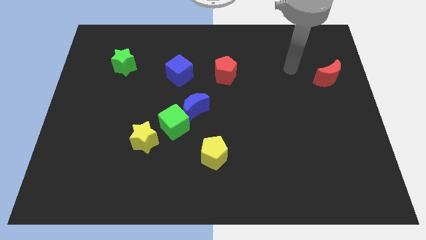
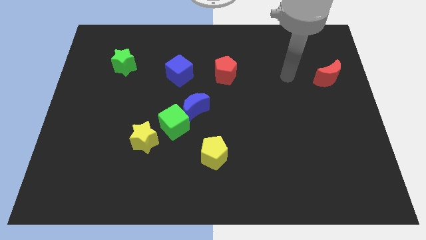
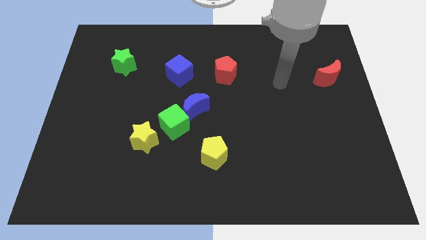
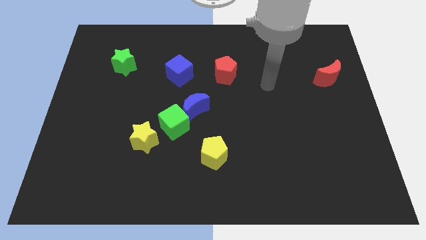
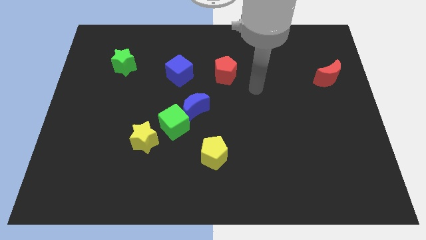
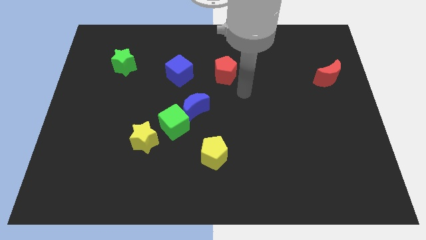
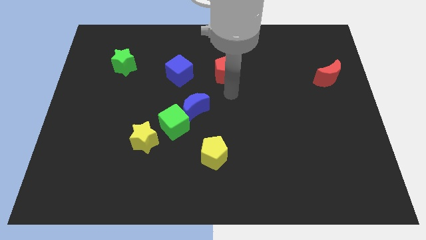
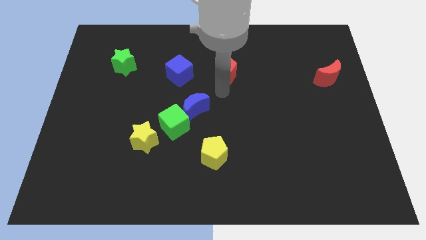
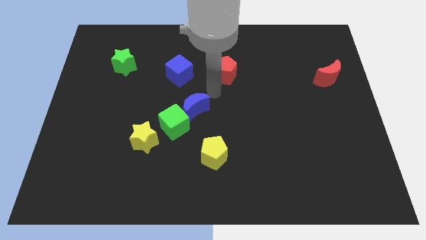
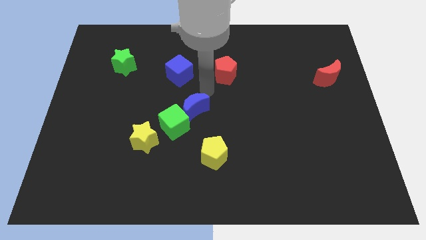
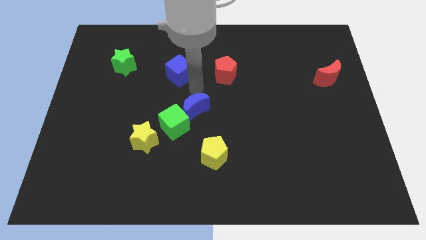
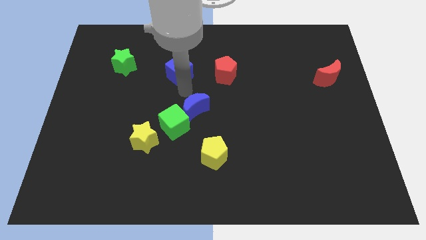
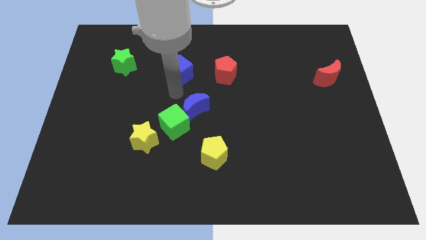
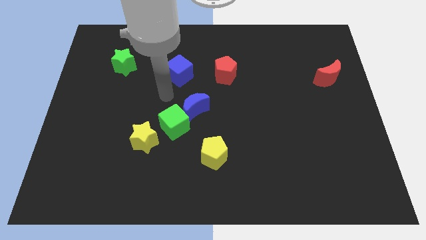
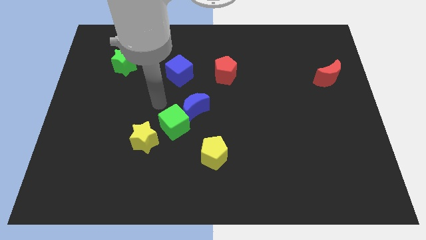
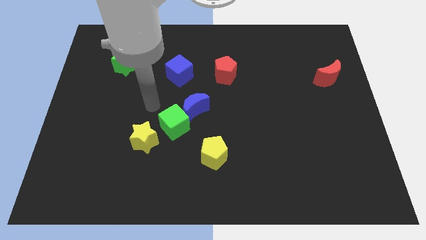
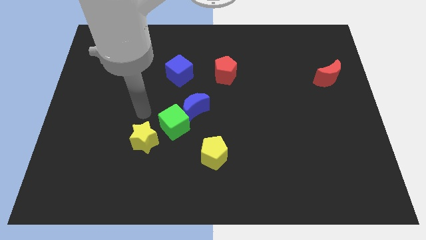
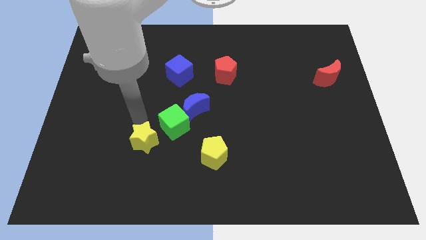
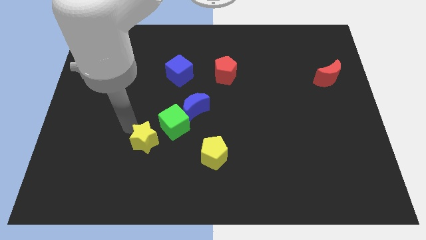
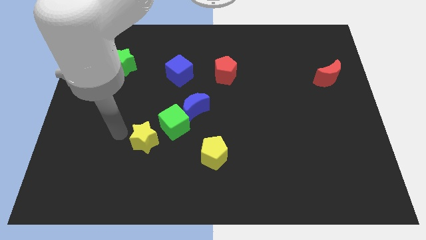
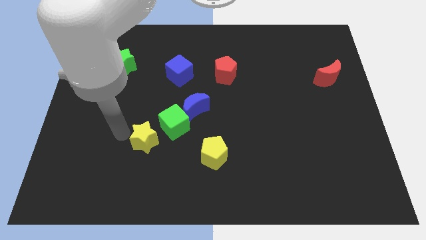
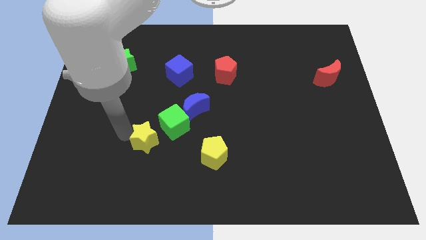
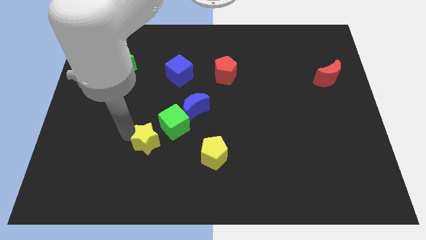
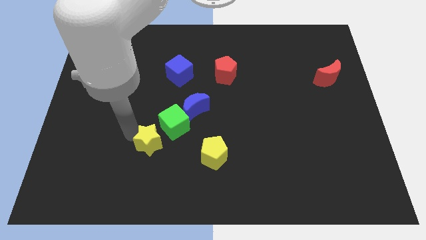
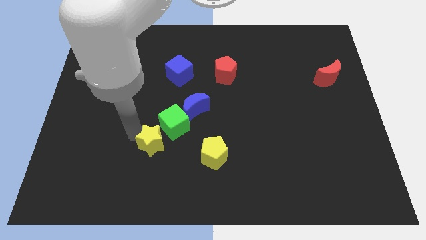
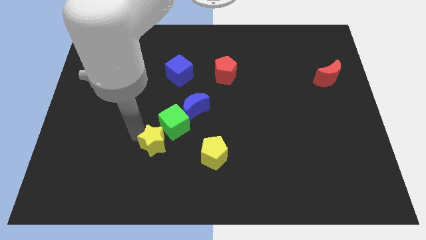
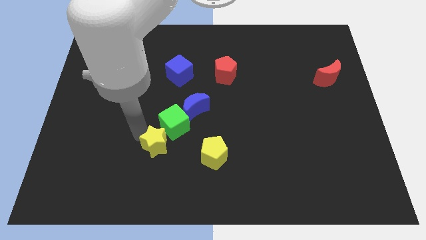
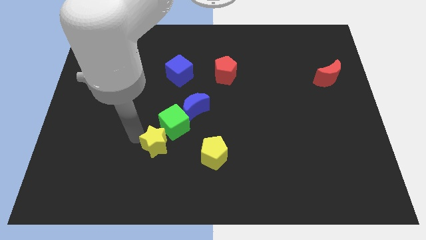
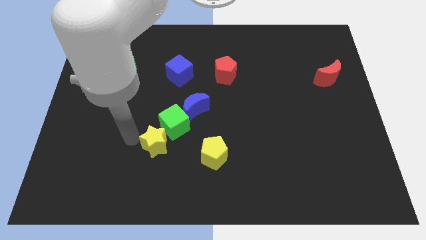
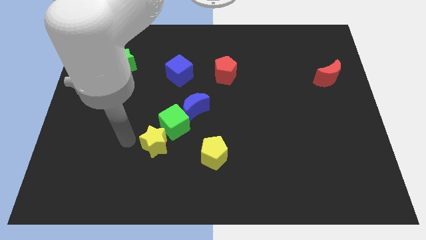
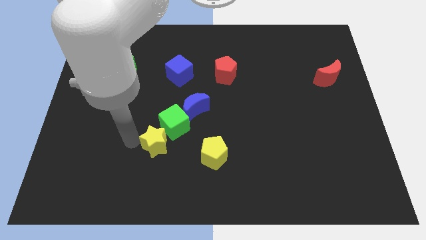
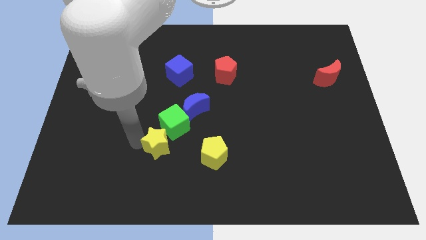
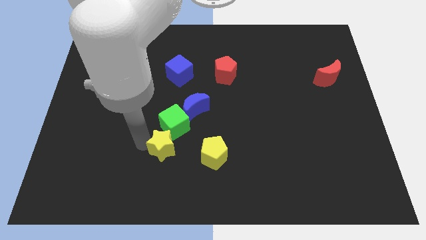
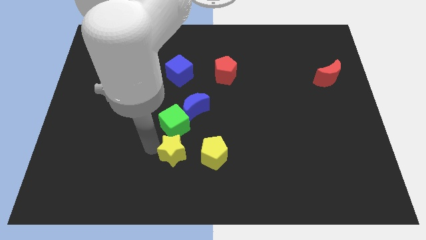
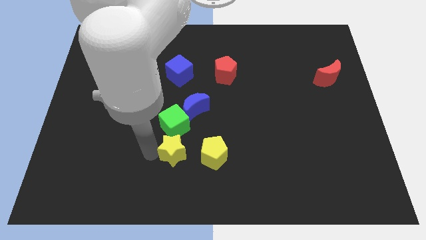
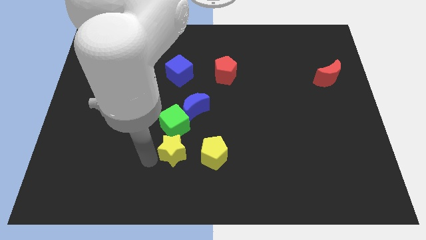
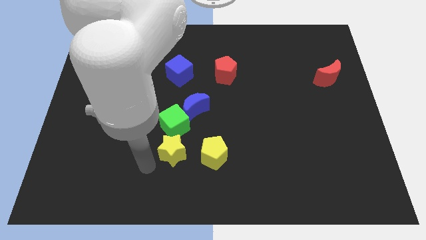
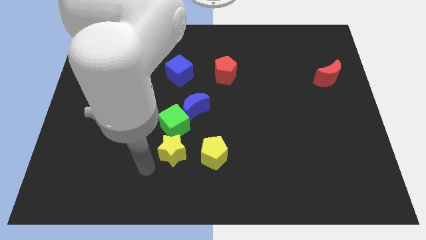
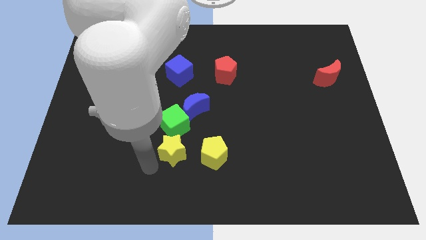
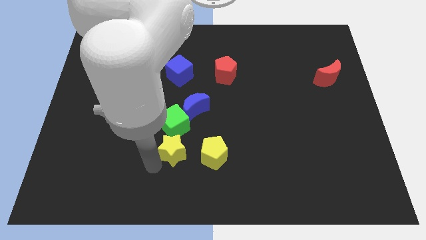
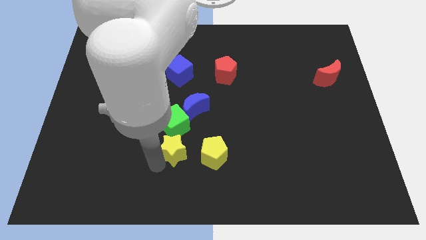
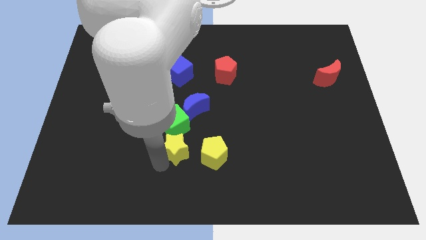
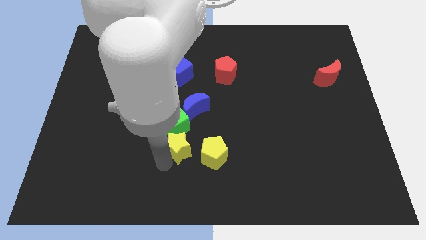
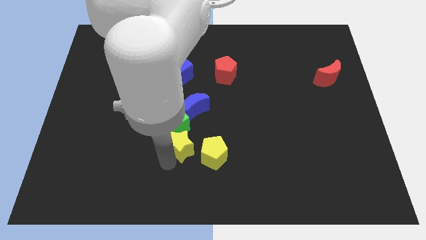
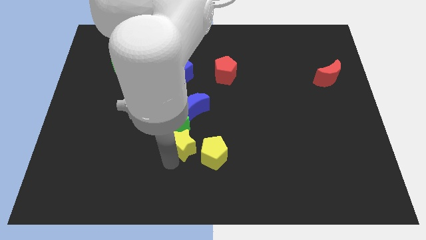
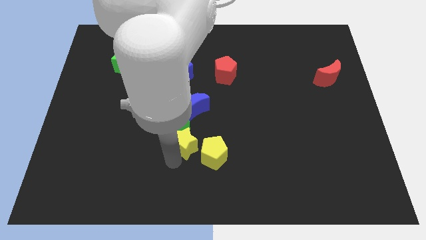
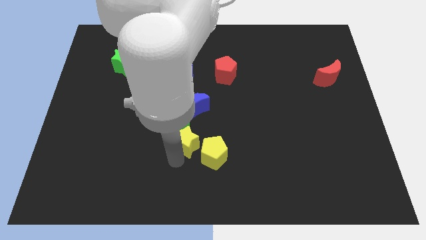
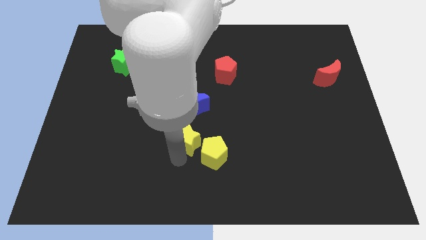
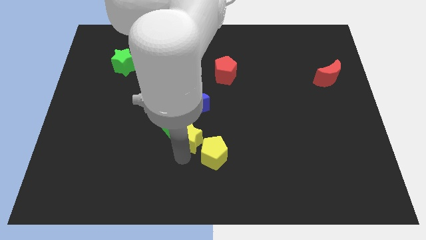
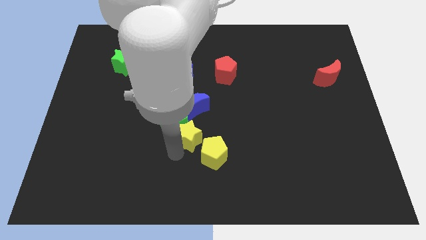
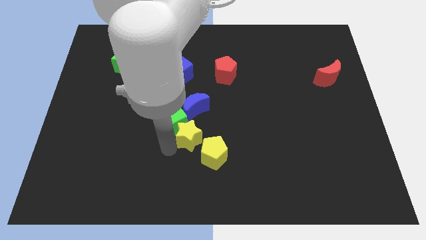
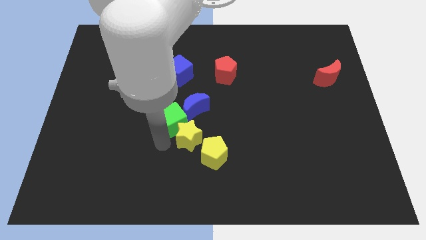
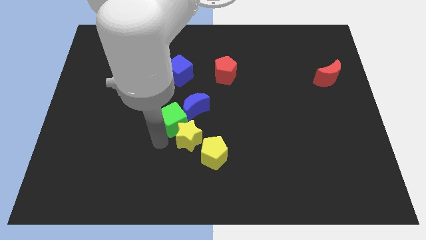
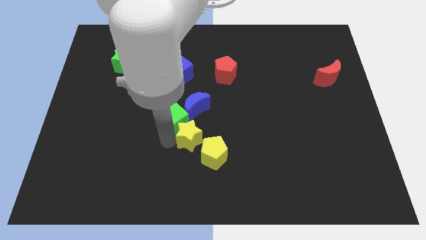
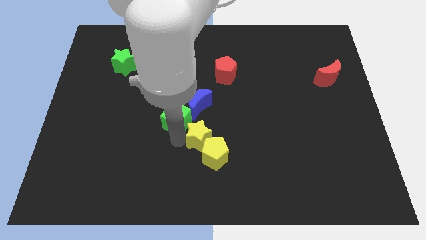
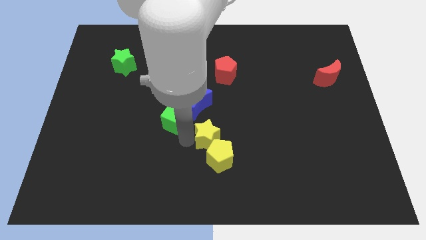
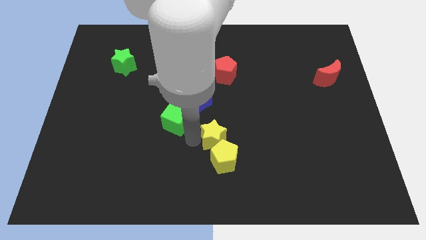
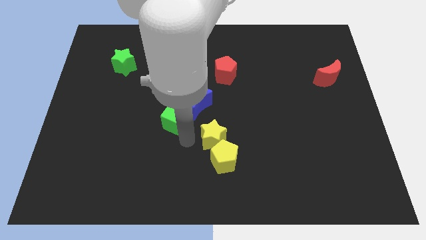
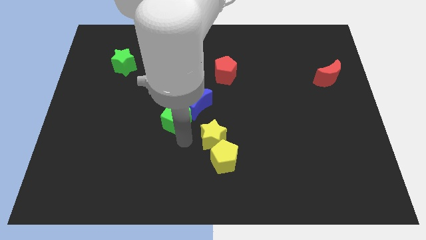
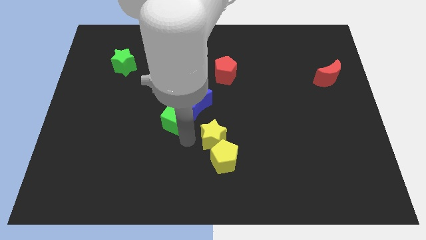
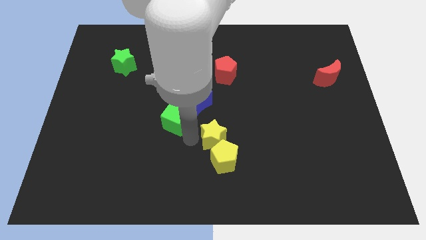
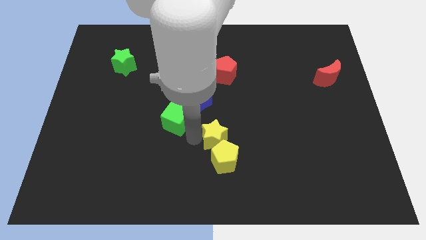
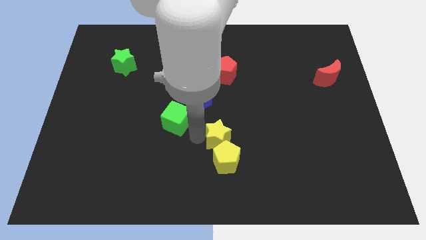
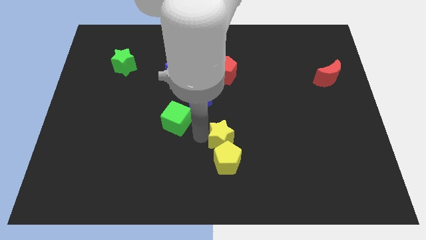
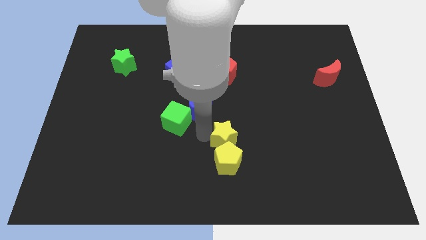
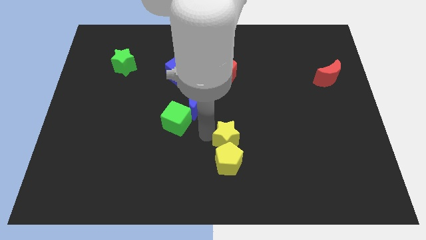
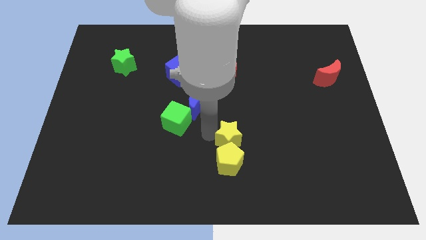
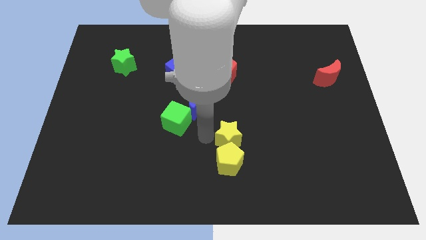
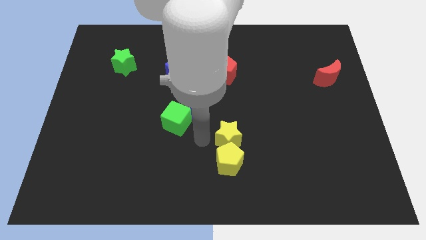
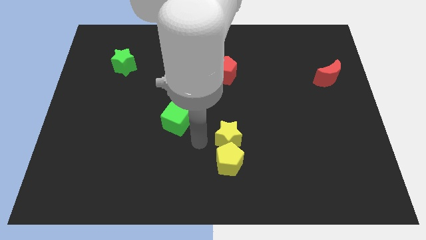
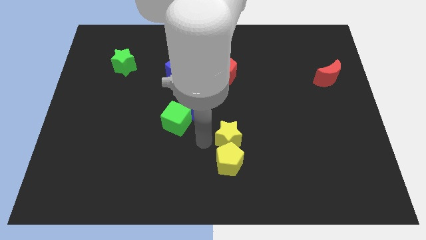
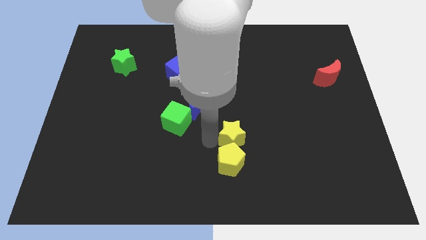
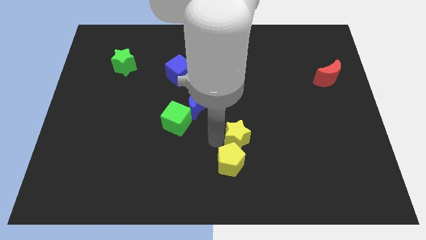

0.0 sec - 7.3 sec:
move the yellow star to the right

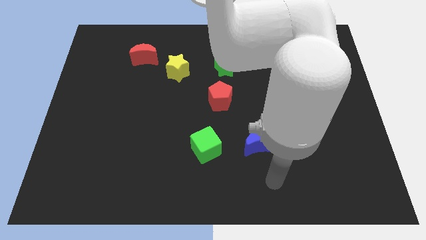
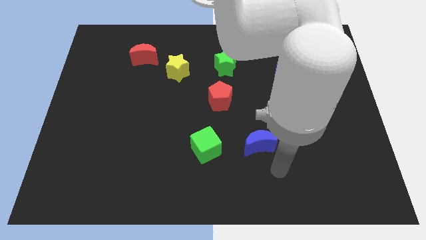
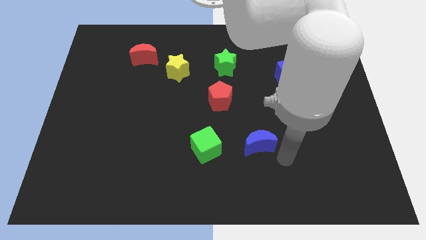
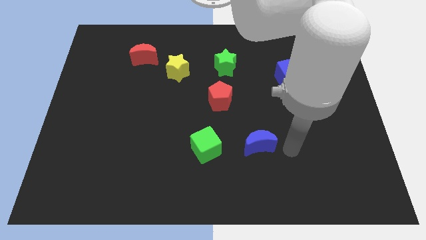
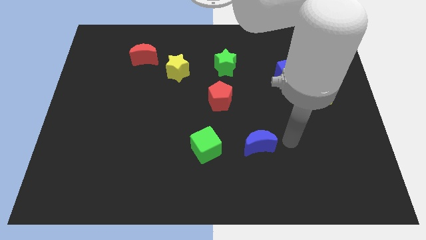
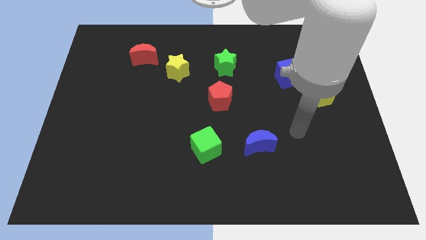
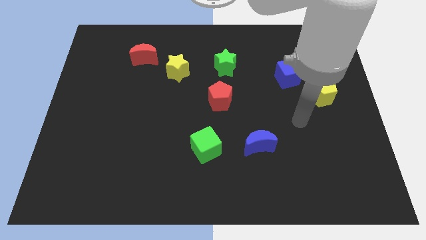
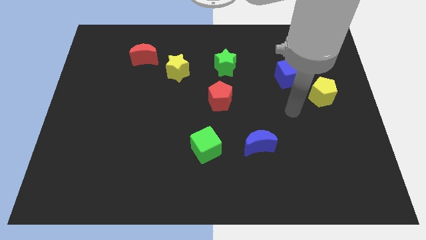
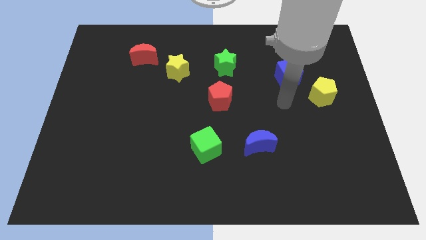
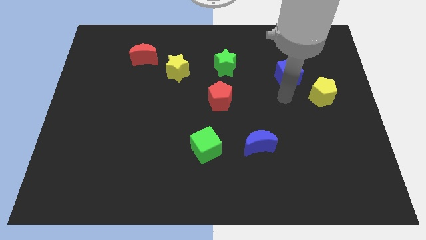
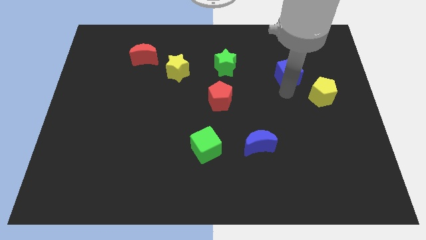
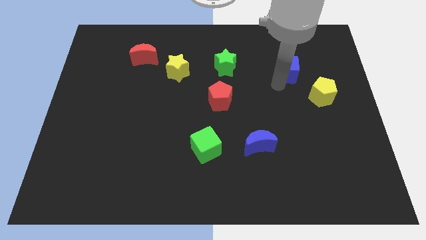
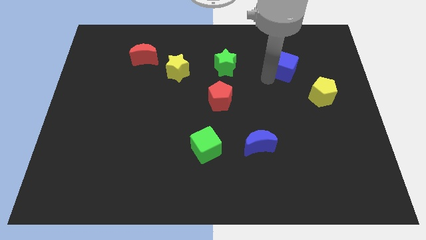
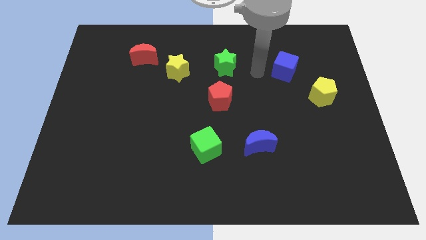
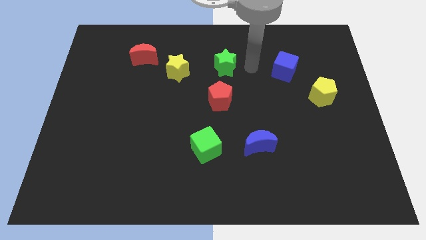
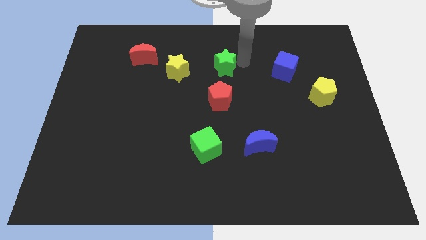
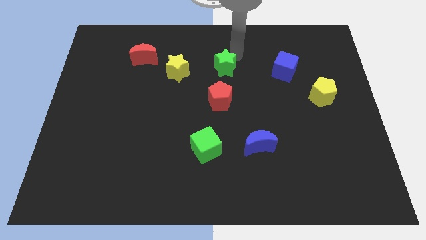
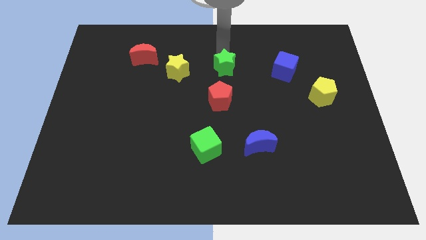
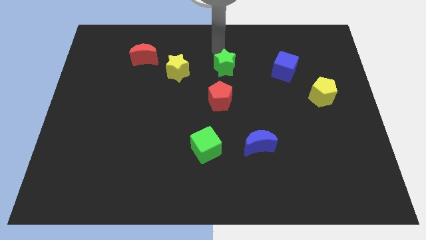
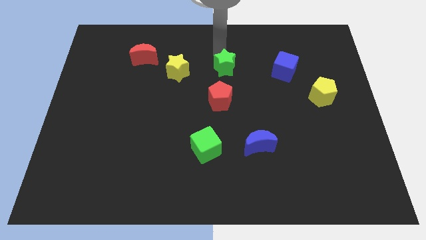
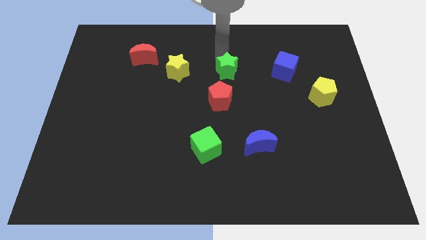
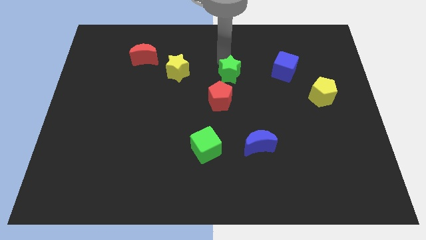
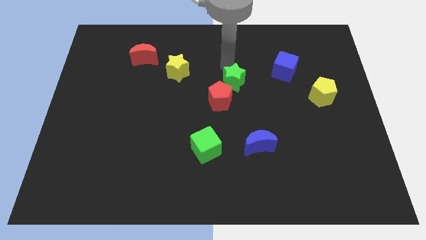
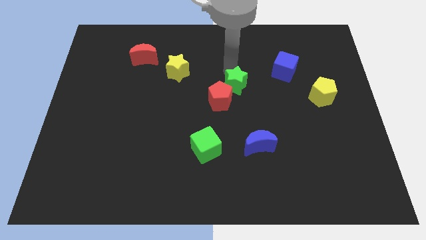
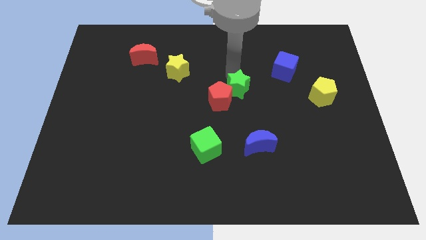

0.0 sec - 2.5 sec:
slightly move the green star downwards
